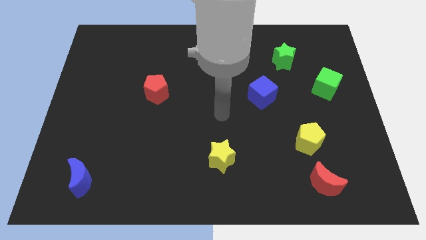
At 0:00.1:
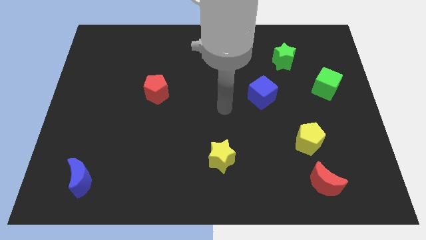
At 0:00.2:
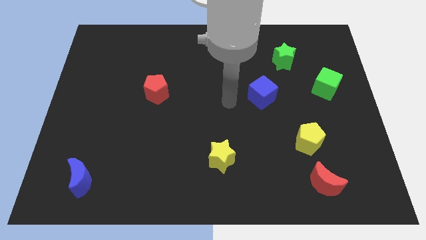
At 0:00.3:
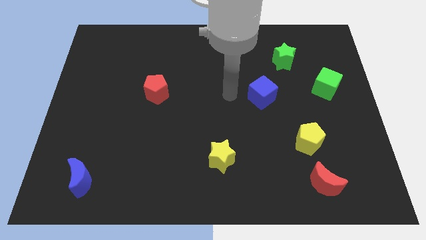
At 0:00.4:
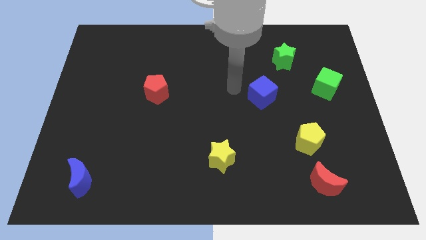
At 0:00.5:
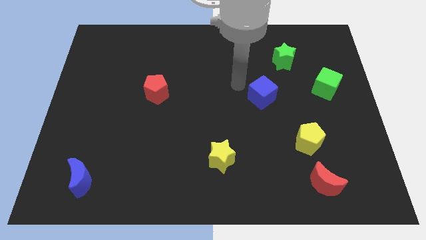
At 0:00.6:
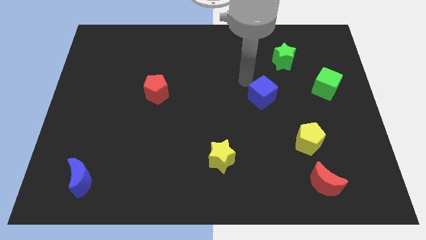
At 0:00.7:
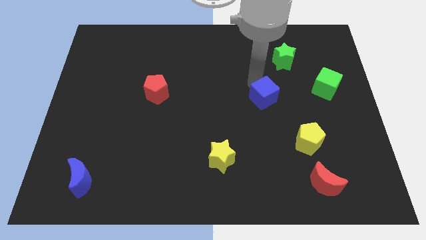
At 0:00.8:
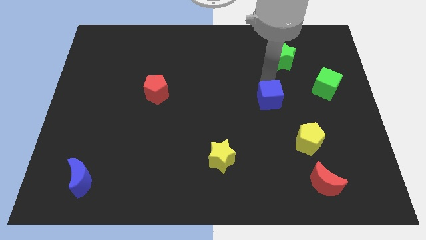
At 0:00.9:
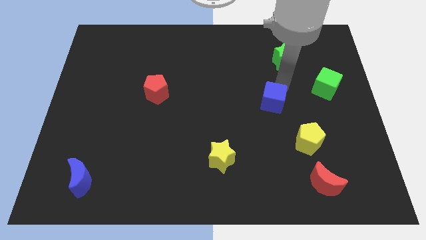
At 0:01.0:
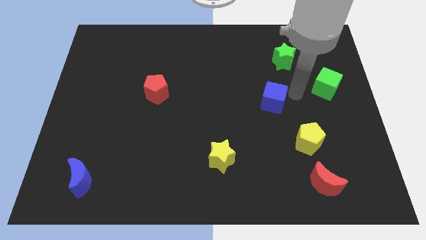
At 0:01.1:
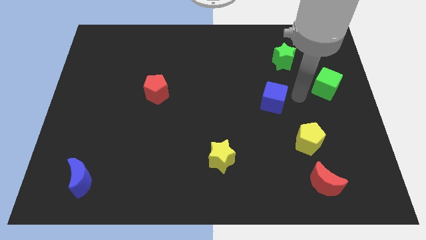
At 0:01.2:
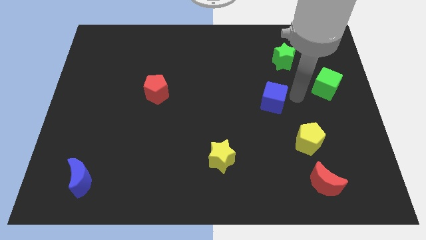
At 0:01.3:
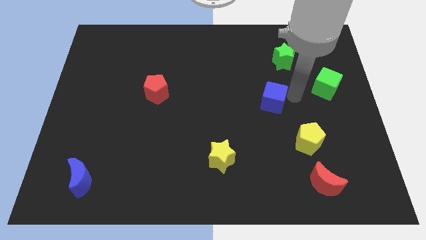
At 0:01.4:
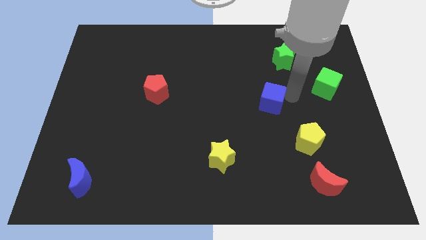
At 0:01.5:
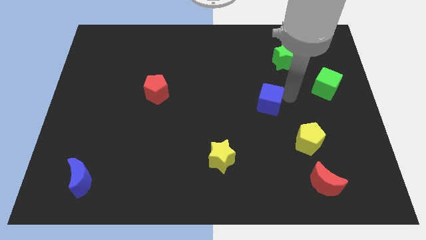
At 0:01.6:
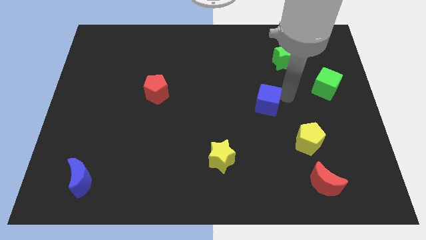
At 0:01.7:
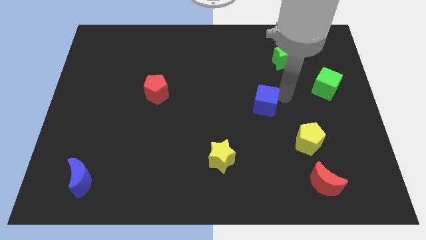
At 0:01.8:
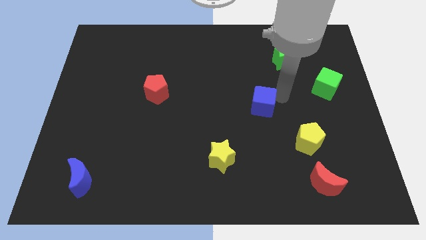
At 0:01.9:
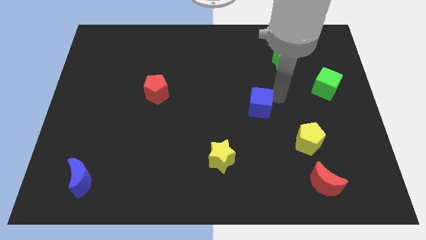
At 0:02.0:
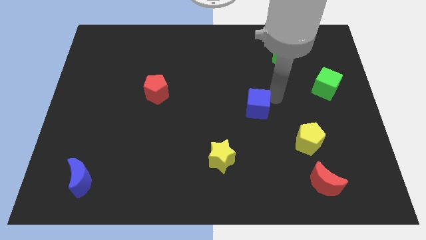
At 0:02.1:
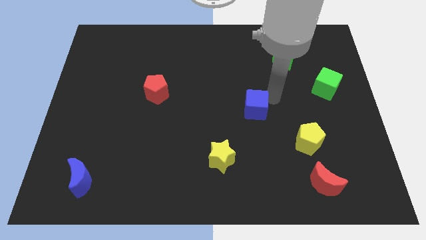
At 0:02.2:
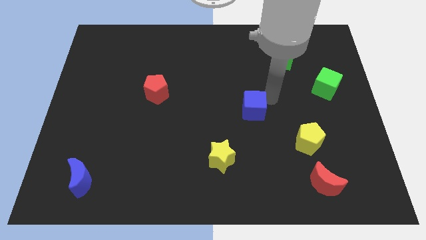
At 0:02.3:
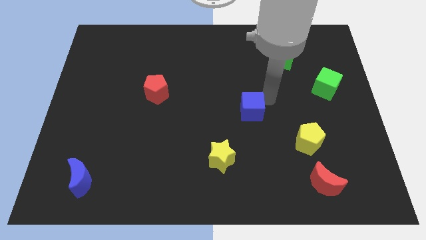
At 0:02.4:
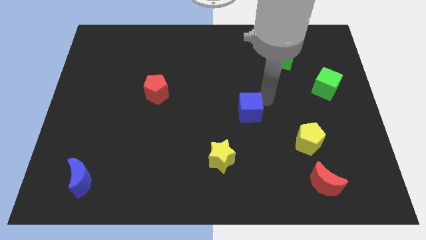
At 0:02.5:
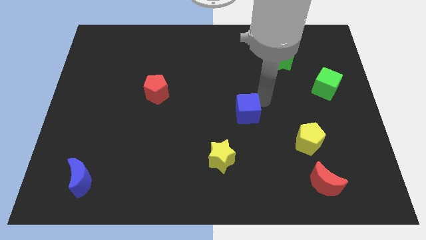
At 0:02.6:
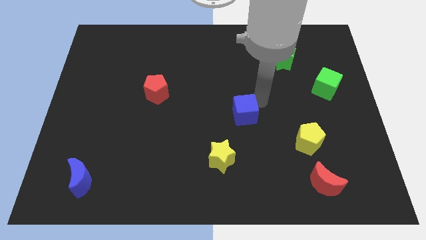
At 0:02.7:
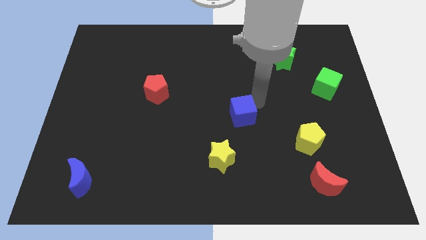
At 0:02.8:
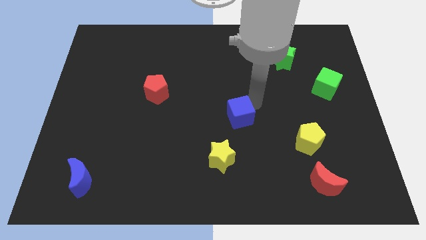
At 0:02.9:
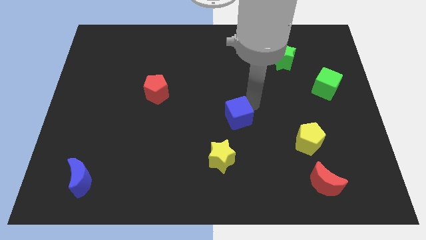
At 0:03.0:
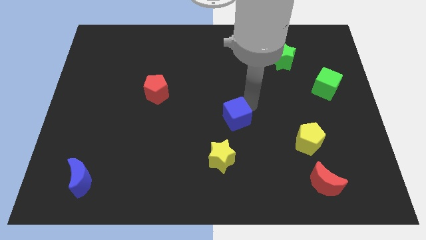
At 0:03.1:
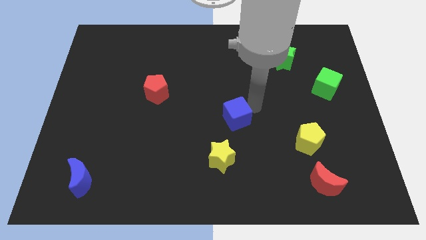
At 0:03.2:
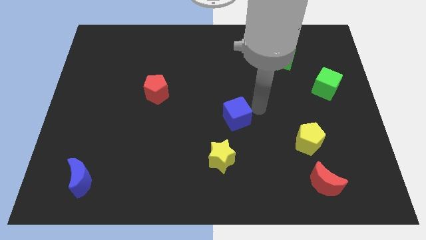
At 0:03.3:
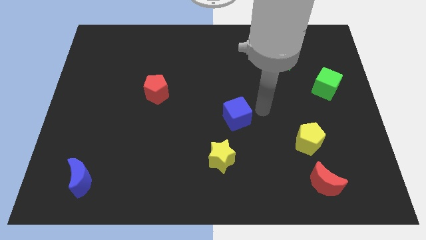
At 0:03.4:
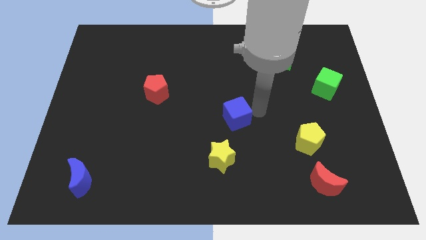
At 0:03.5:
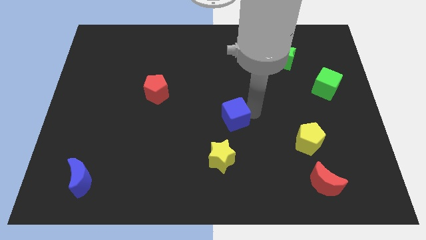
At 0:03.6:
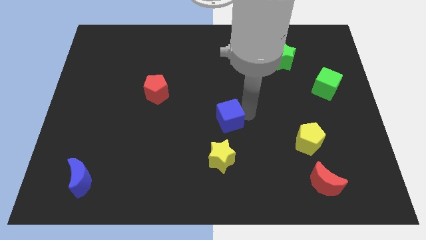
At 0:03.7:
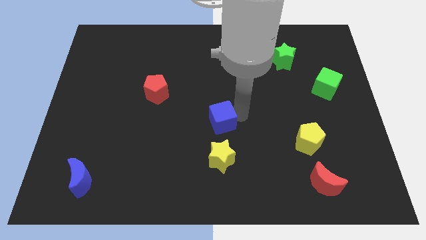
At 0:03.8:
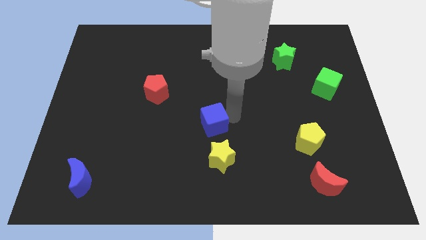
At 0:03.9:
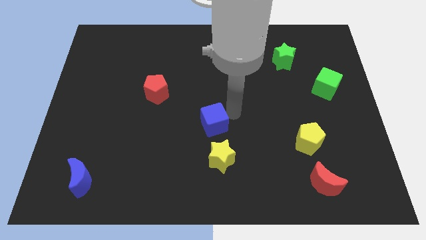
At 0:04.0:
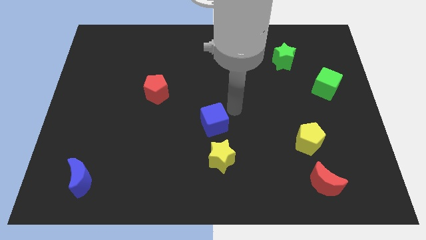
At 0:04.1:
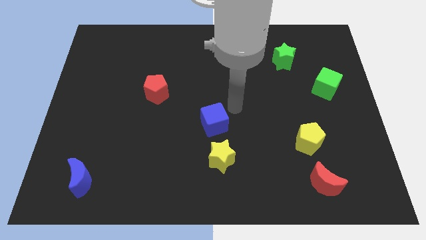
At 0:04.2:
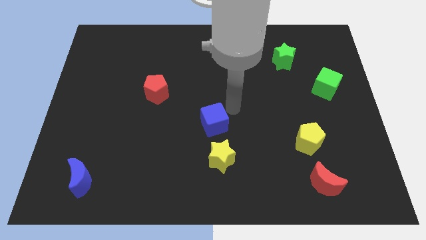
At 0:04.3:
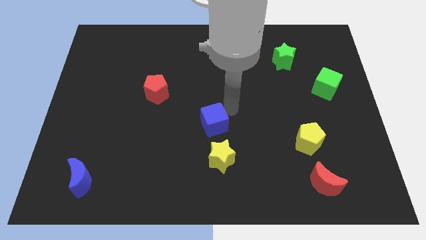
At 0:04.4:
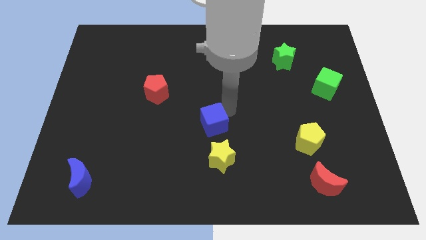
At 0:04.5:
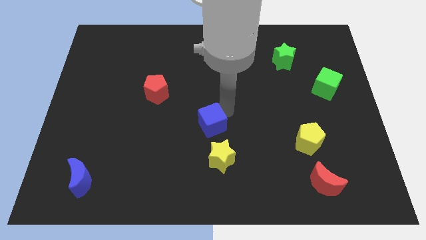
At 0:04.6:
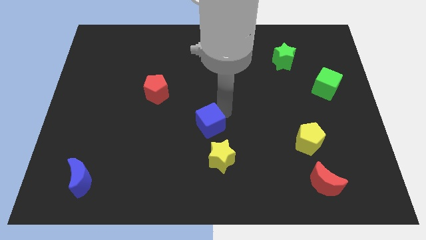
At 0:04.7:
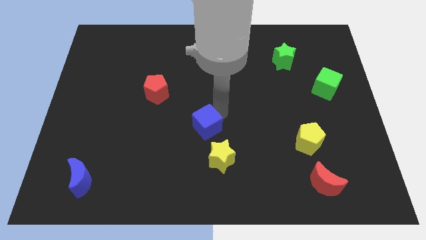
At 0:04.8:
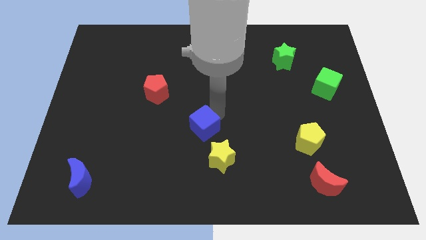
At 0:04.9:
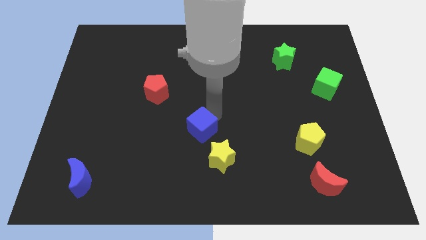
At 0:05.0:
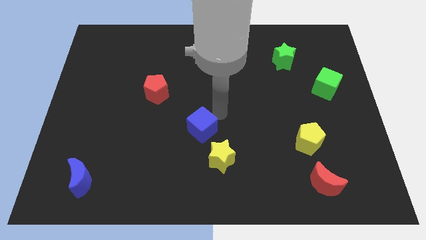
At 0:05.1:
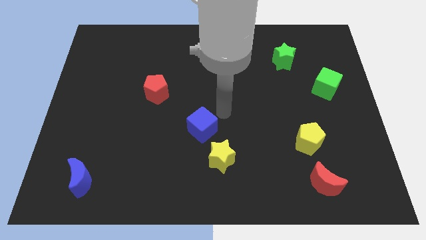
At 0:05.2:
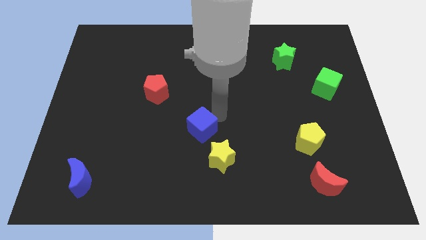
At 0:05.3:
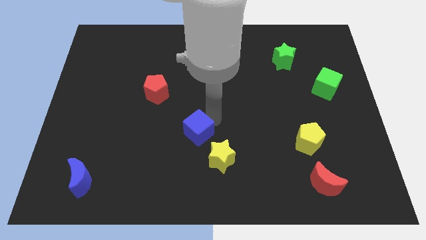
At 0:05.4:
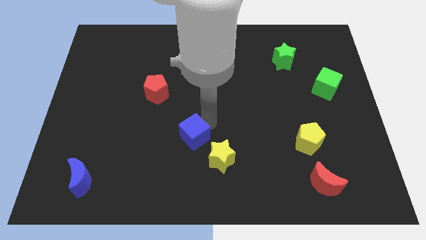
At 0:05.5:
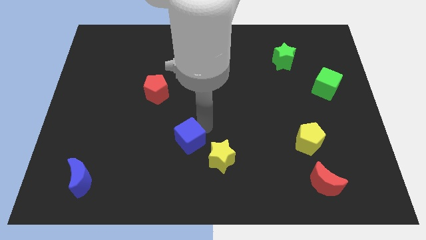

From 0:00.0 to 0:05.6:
move the blue cube just left of the yellow star

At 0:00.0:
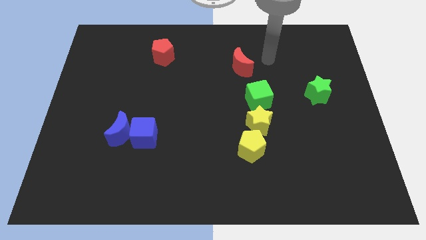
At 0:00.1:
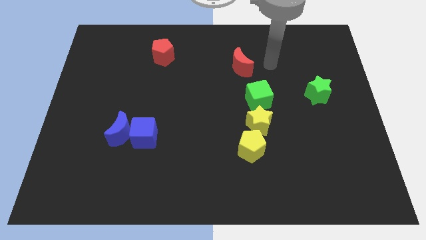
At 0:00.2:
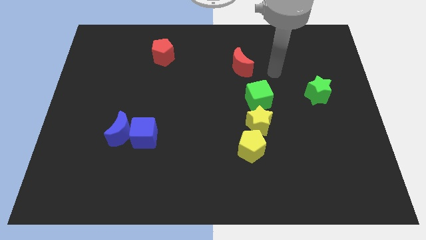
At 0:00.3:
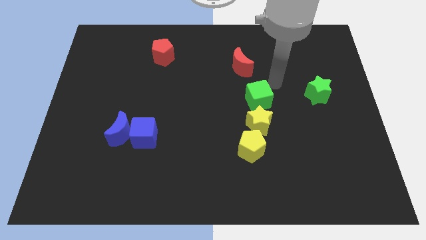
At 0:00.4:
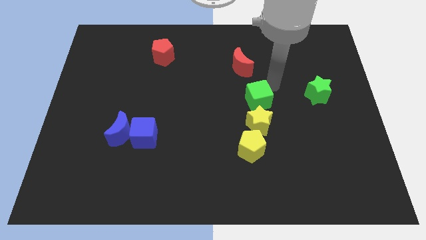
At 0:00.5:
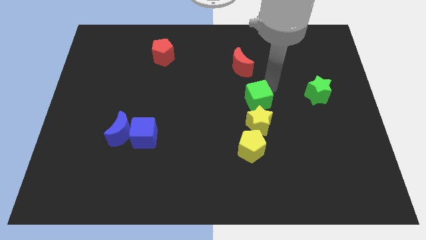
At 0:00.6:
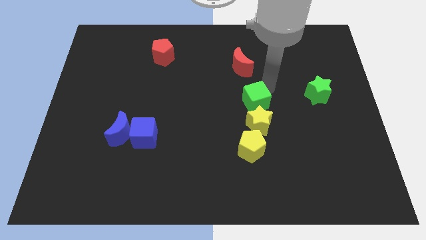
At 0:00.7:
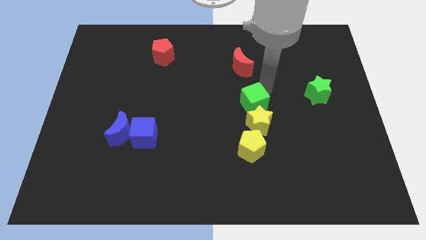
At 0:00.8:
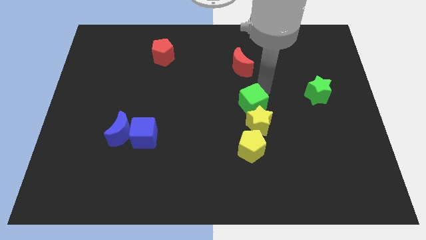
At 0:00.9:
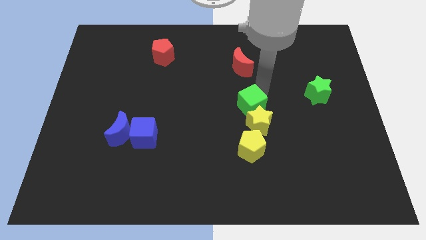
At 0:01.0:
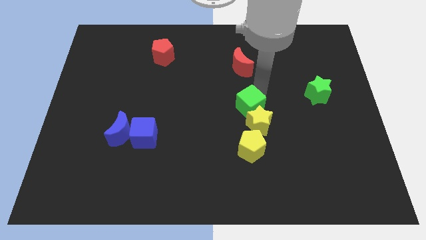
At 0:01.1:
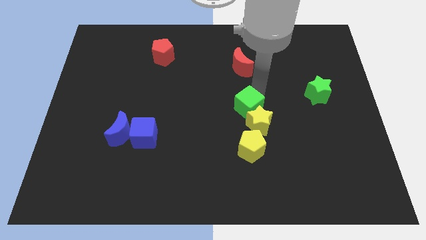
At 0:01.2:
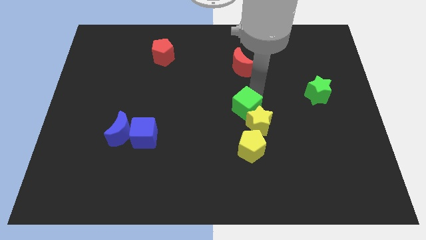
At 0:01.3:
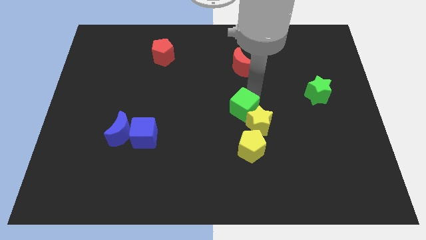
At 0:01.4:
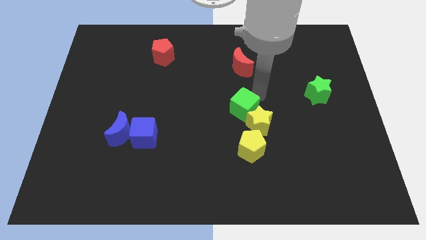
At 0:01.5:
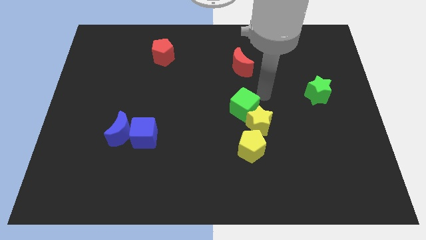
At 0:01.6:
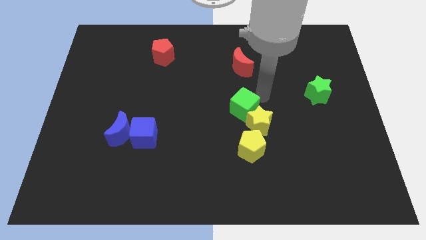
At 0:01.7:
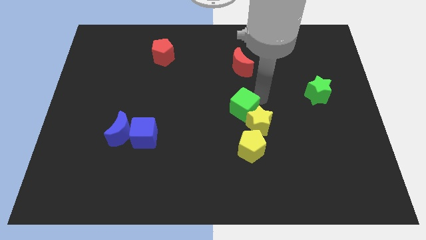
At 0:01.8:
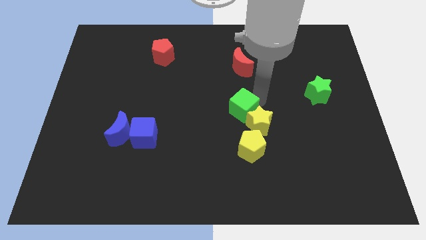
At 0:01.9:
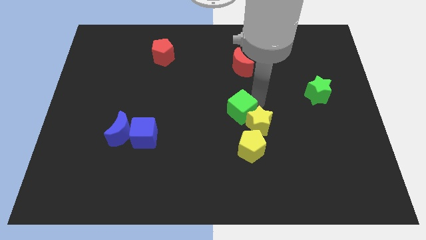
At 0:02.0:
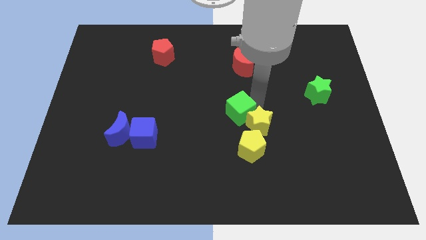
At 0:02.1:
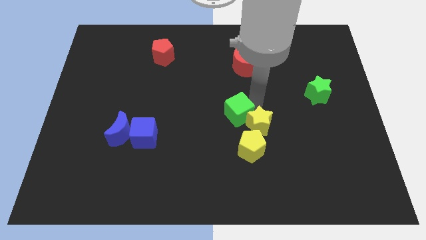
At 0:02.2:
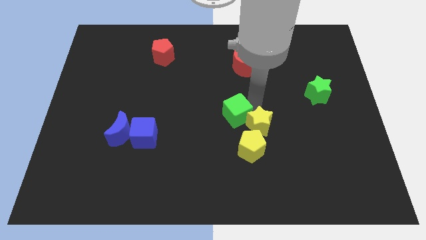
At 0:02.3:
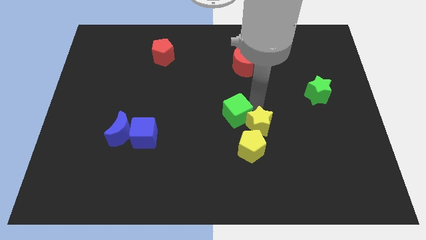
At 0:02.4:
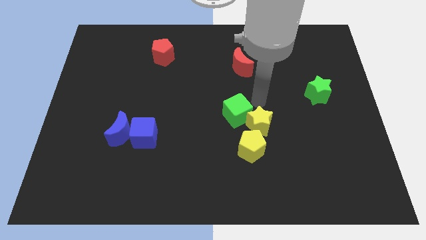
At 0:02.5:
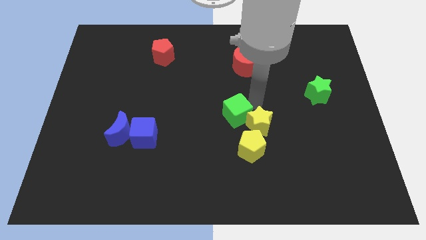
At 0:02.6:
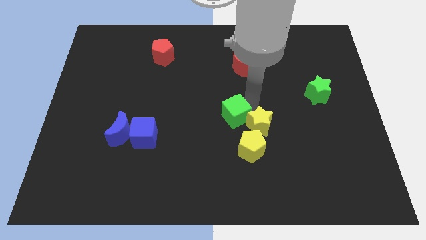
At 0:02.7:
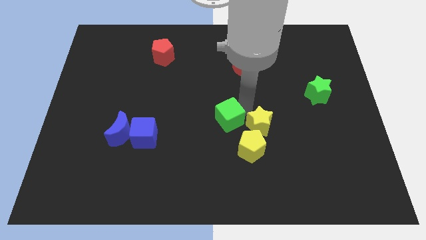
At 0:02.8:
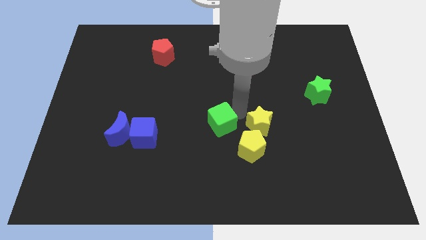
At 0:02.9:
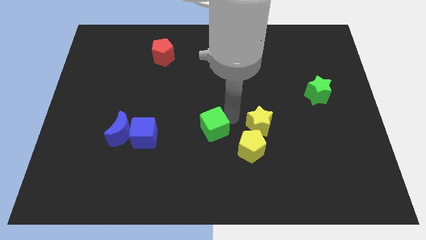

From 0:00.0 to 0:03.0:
move the green cube to the right of the blue cube
